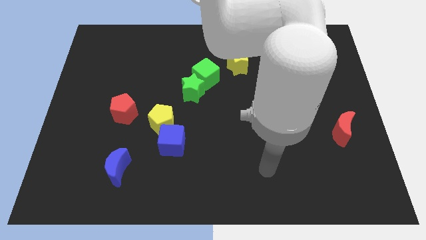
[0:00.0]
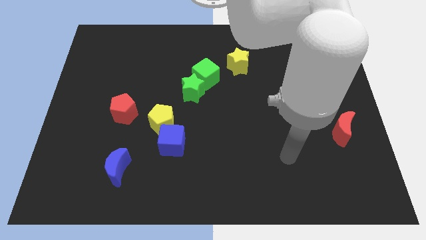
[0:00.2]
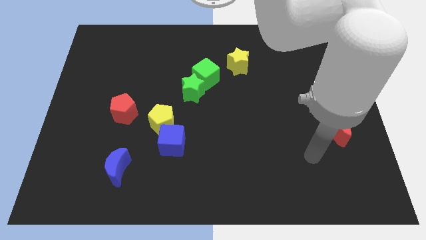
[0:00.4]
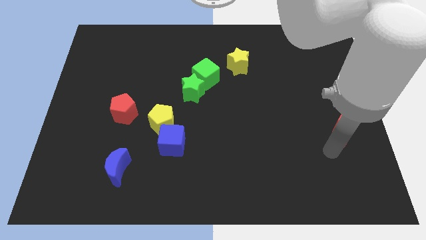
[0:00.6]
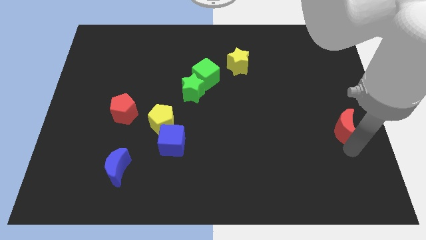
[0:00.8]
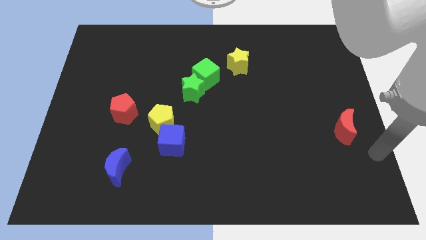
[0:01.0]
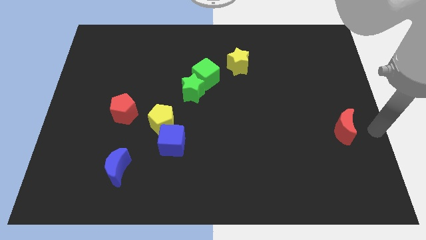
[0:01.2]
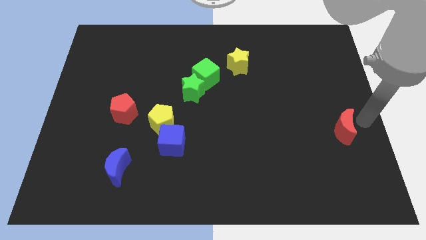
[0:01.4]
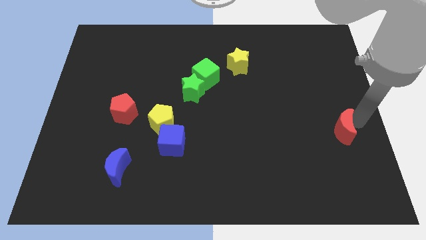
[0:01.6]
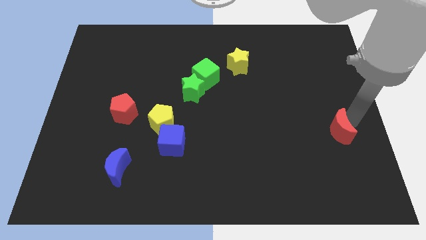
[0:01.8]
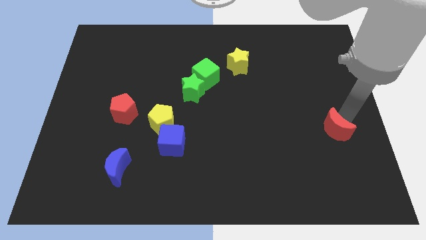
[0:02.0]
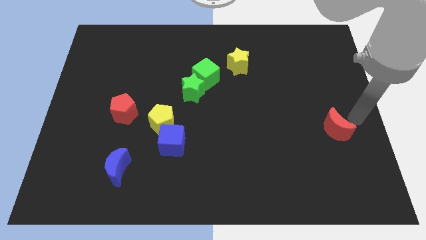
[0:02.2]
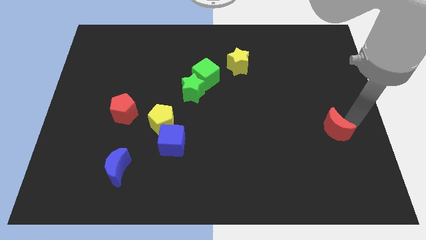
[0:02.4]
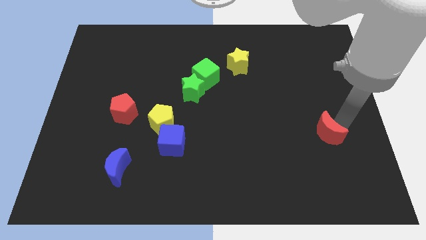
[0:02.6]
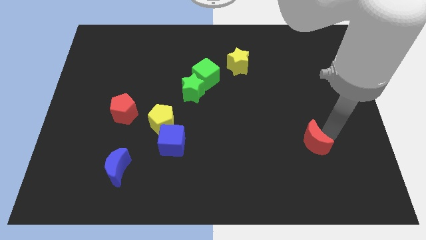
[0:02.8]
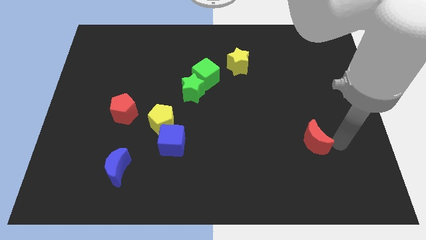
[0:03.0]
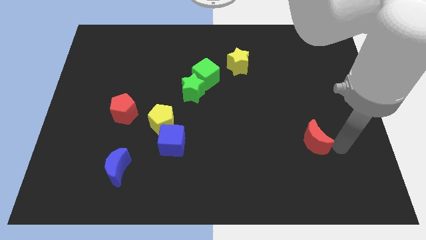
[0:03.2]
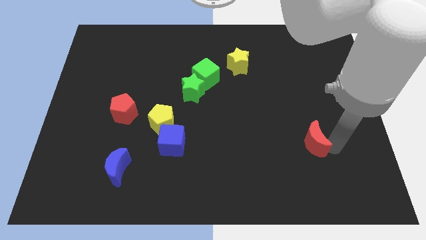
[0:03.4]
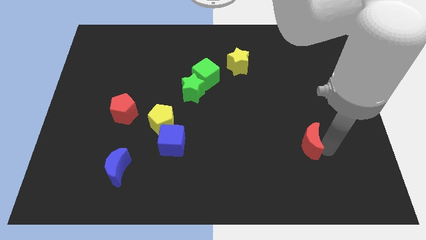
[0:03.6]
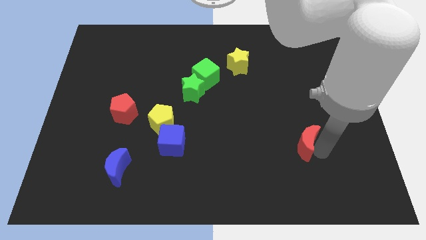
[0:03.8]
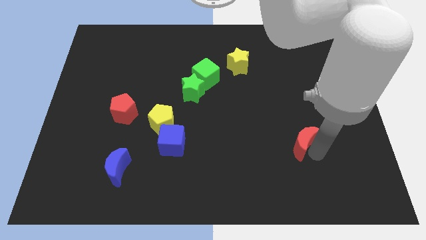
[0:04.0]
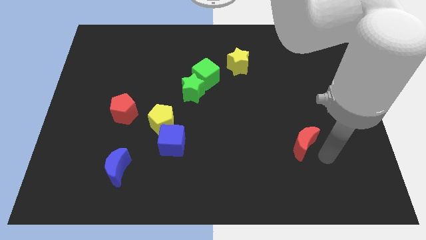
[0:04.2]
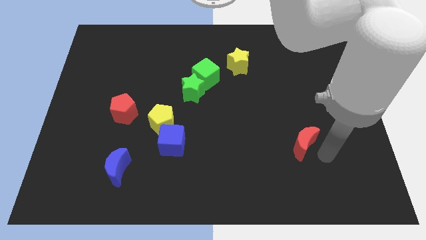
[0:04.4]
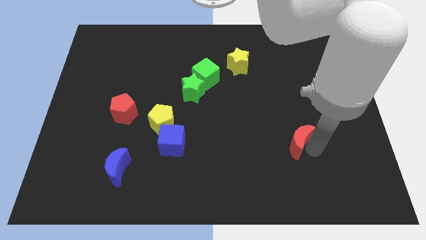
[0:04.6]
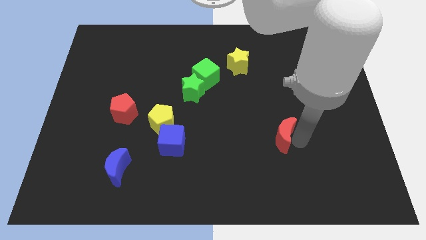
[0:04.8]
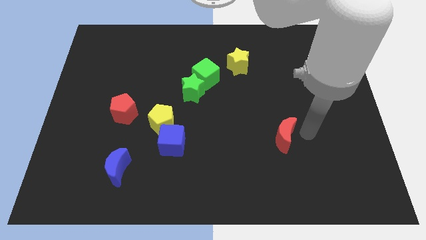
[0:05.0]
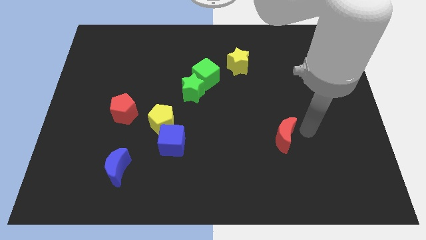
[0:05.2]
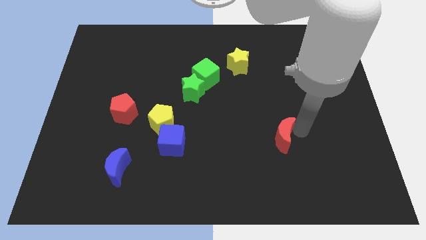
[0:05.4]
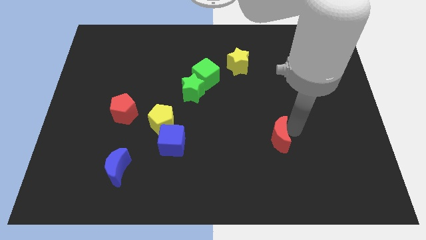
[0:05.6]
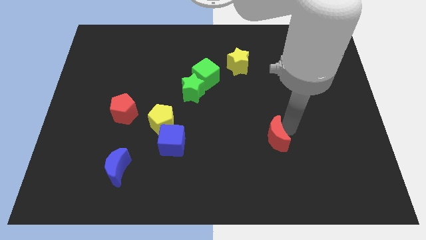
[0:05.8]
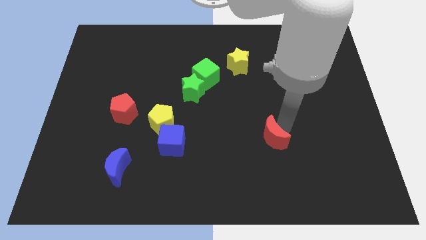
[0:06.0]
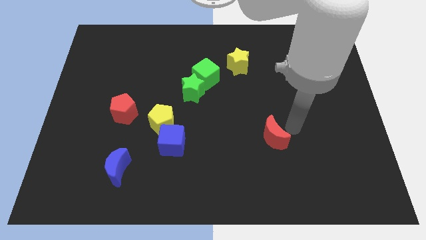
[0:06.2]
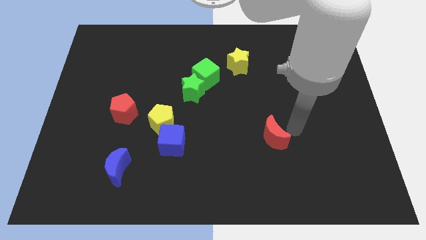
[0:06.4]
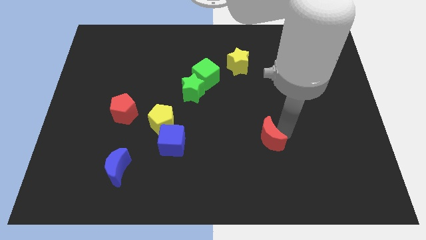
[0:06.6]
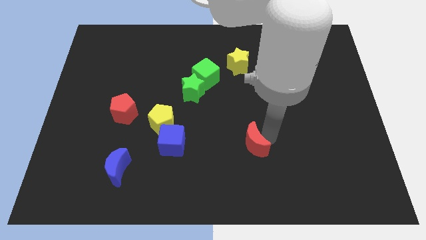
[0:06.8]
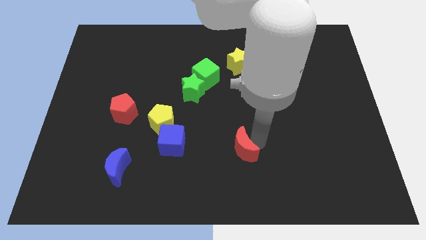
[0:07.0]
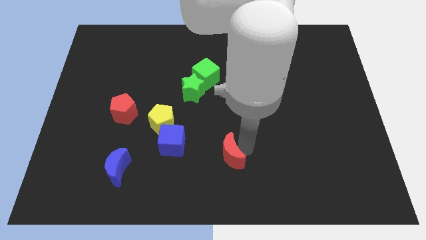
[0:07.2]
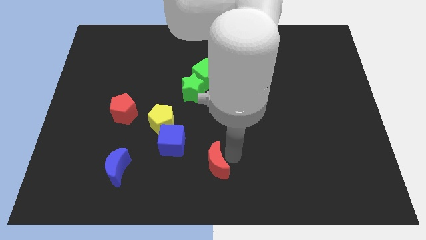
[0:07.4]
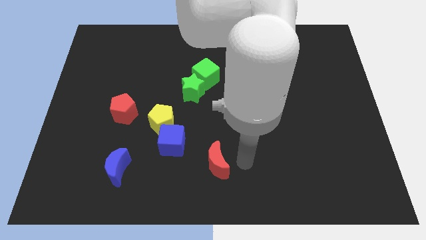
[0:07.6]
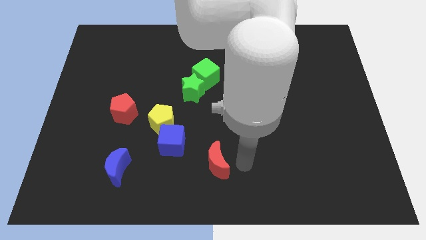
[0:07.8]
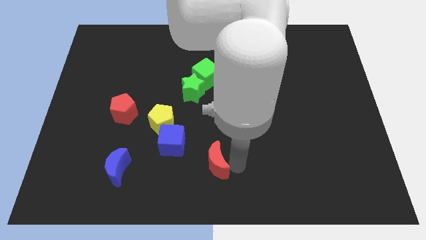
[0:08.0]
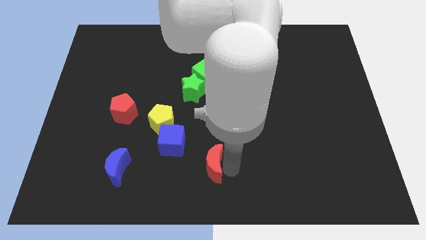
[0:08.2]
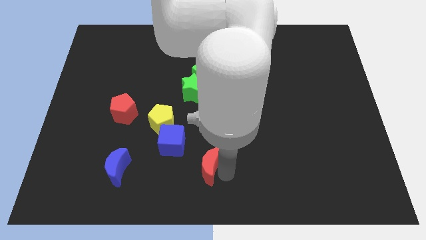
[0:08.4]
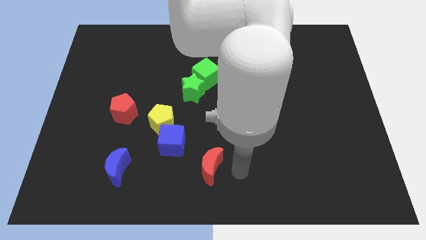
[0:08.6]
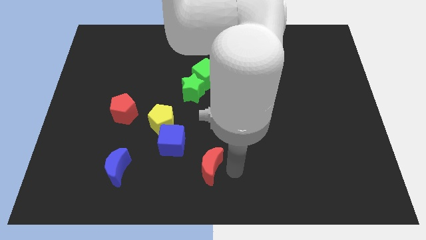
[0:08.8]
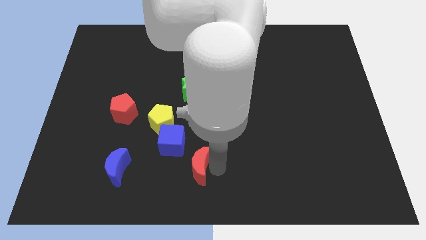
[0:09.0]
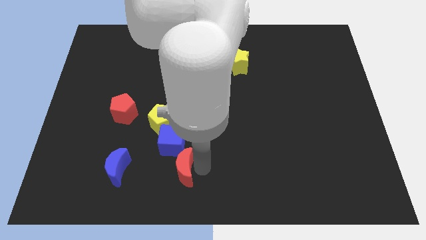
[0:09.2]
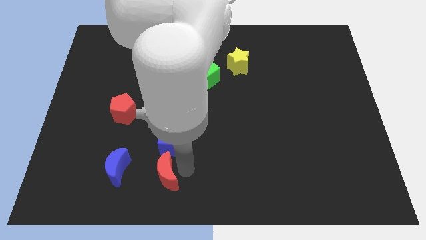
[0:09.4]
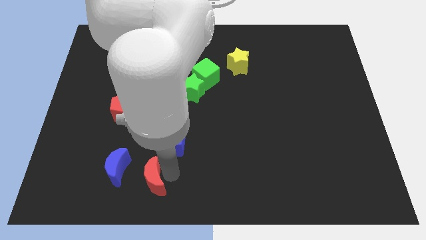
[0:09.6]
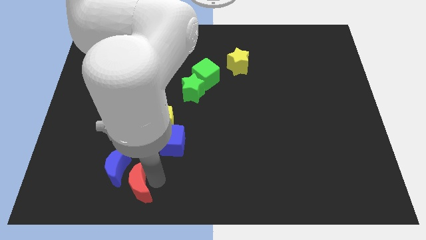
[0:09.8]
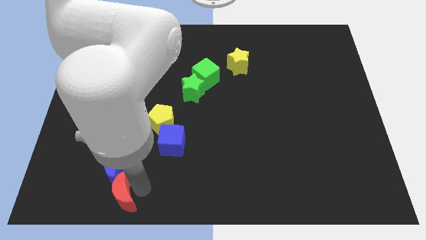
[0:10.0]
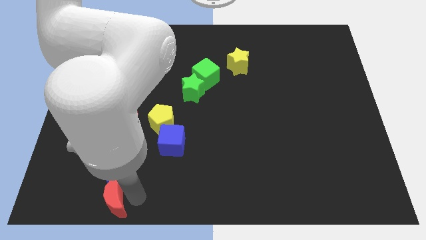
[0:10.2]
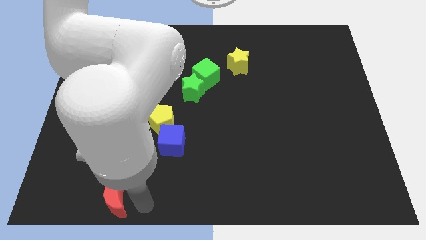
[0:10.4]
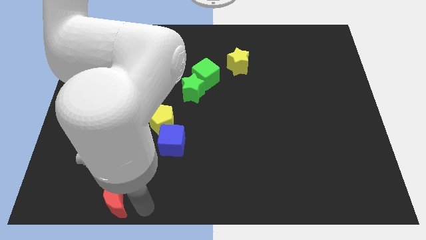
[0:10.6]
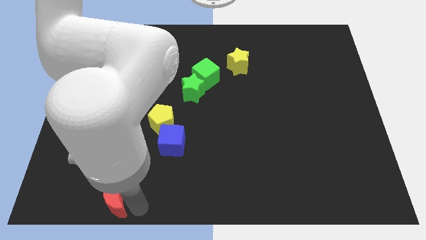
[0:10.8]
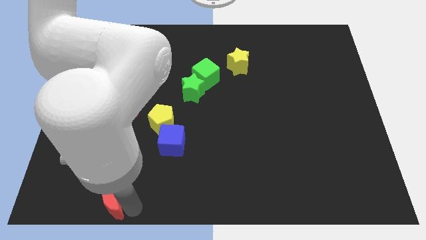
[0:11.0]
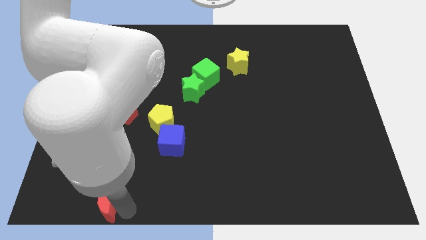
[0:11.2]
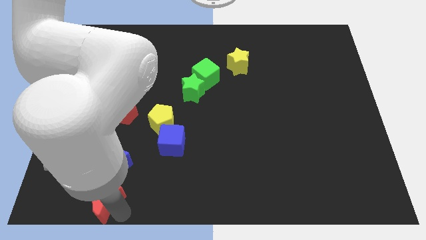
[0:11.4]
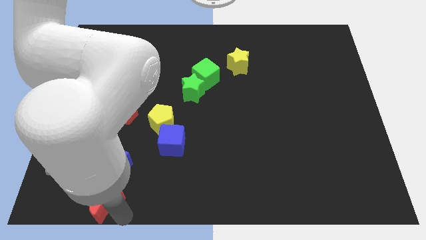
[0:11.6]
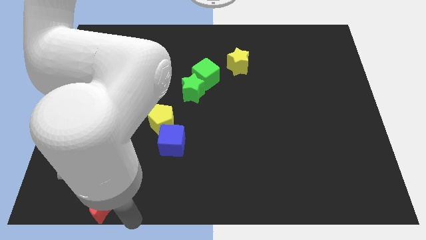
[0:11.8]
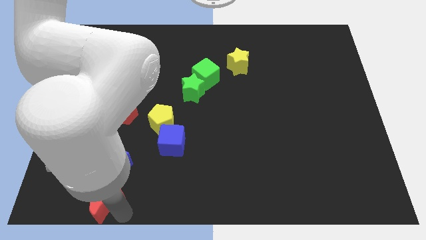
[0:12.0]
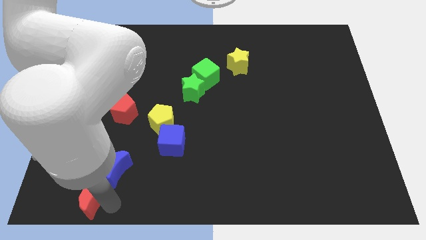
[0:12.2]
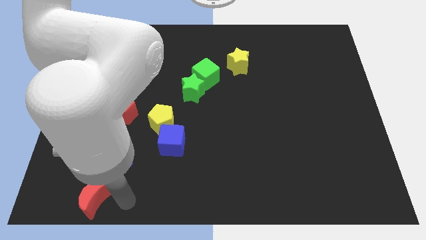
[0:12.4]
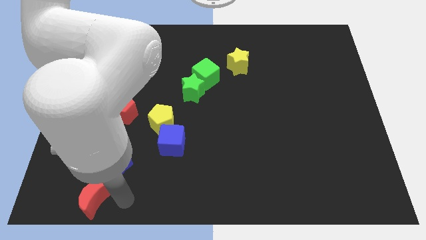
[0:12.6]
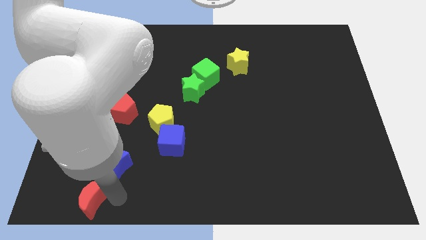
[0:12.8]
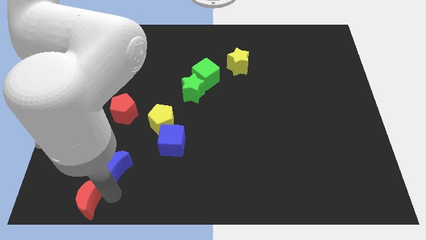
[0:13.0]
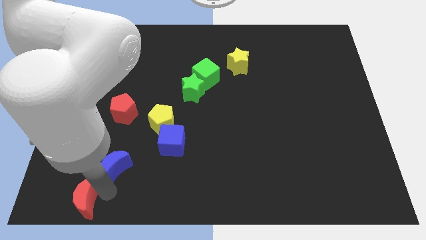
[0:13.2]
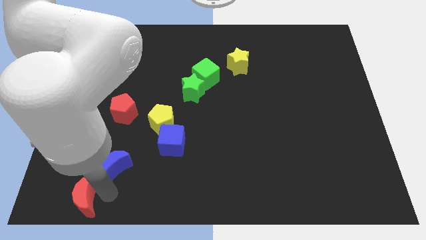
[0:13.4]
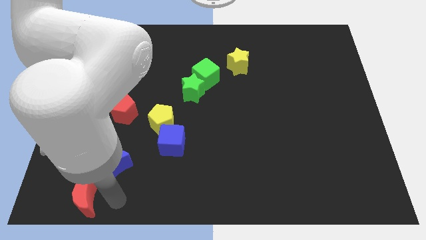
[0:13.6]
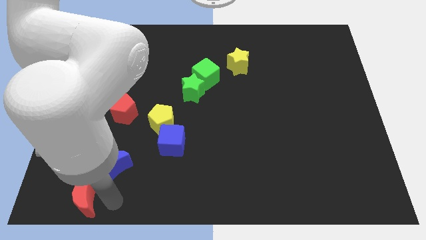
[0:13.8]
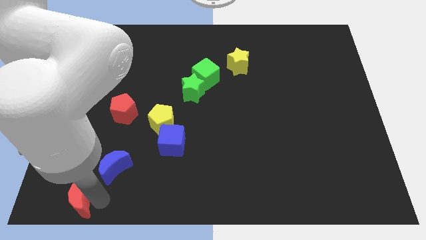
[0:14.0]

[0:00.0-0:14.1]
put the red moon to the bottom left corner

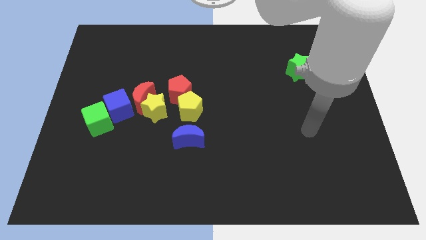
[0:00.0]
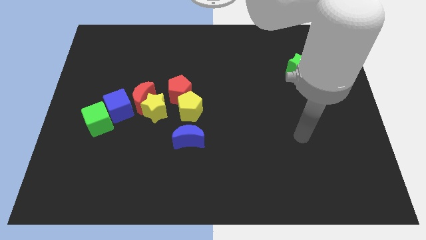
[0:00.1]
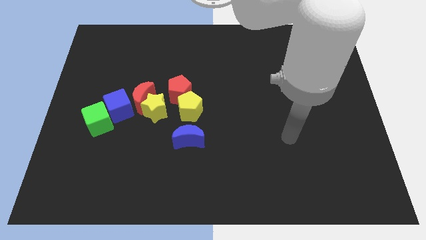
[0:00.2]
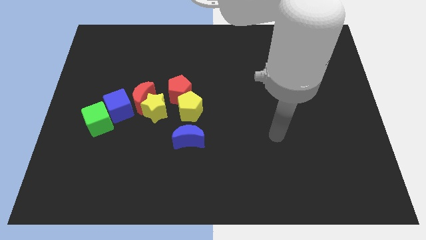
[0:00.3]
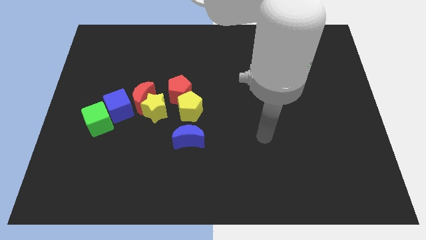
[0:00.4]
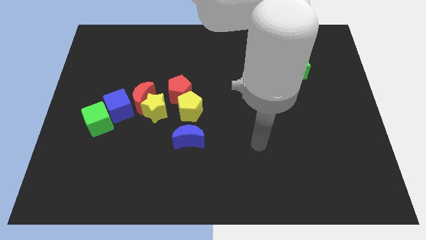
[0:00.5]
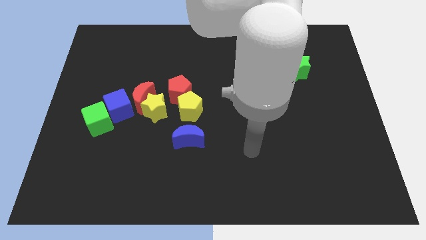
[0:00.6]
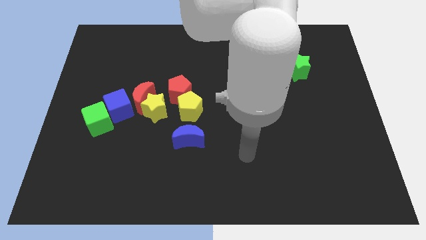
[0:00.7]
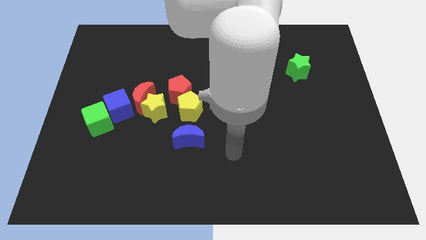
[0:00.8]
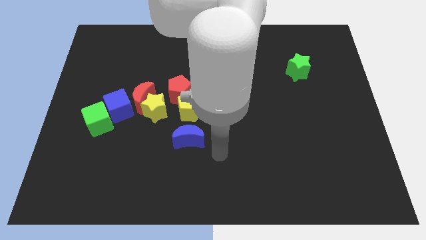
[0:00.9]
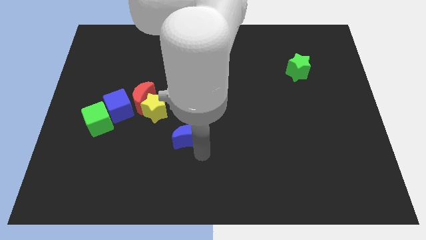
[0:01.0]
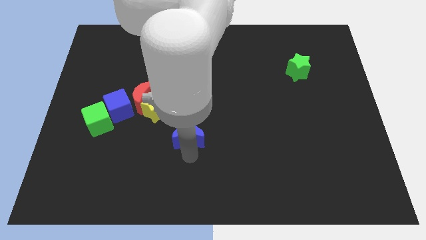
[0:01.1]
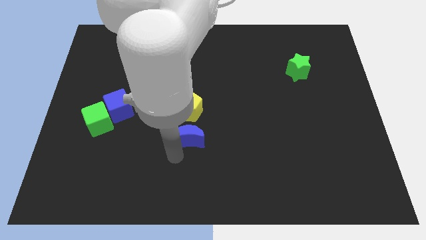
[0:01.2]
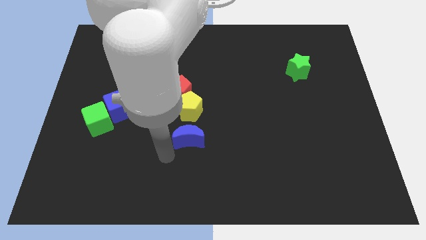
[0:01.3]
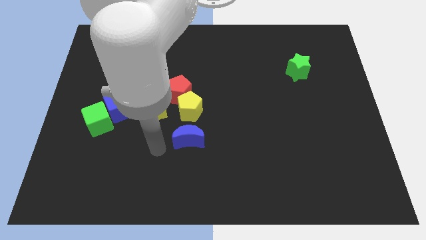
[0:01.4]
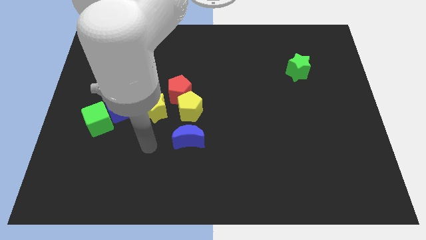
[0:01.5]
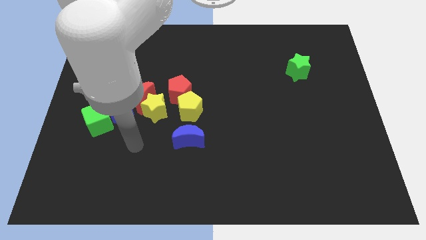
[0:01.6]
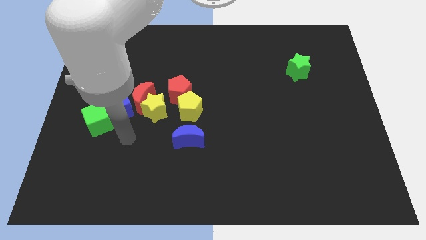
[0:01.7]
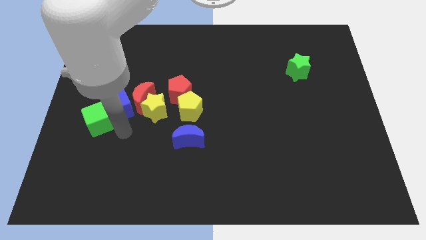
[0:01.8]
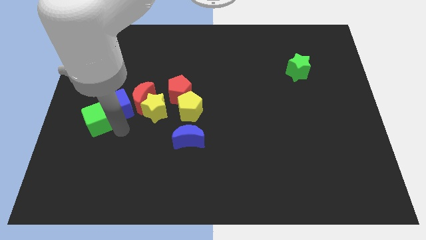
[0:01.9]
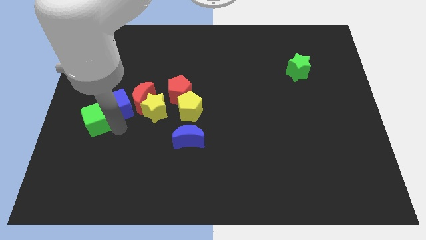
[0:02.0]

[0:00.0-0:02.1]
push the green cube to the left side of the board
